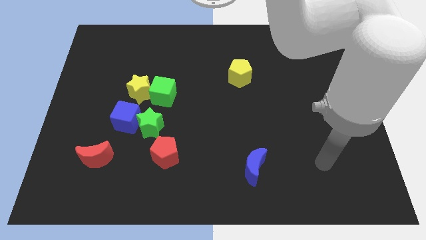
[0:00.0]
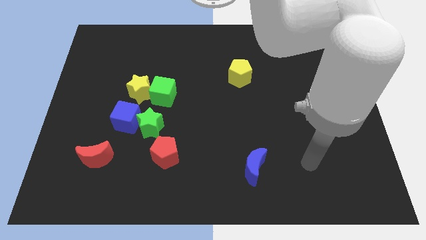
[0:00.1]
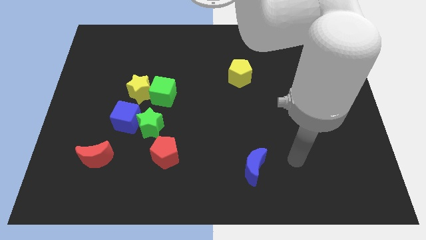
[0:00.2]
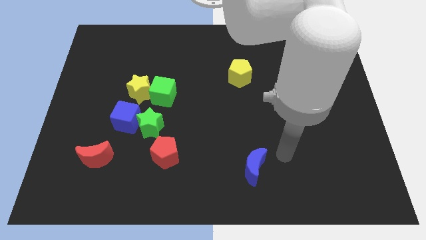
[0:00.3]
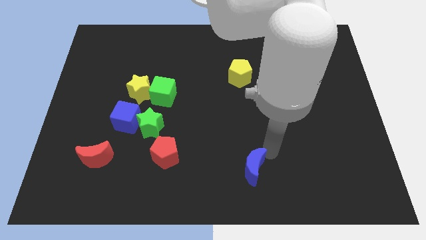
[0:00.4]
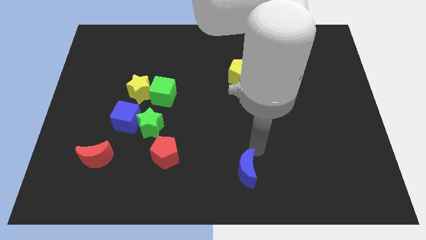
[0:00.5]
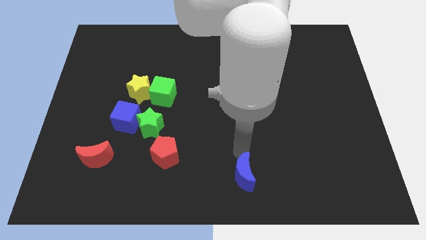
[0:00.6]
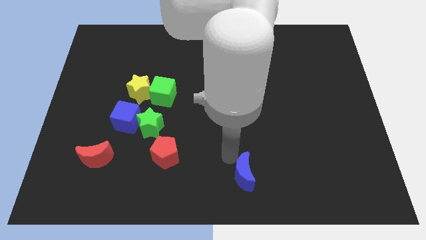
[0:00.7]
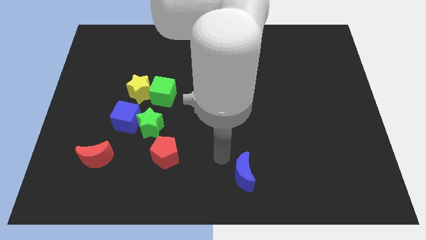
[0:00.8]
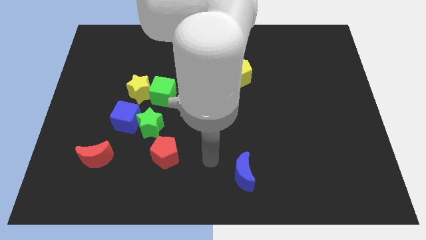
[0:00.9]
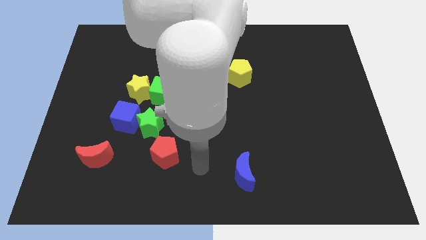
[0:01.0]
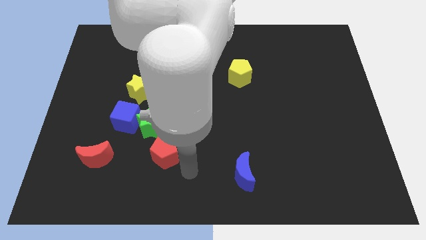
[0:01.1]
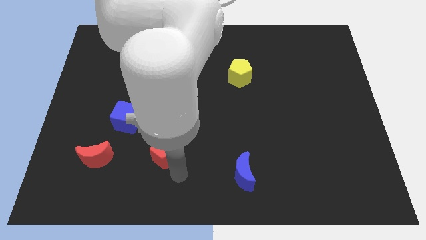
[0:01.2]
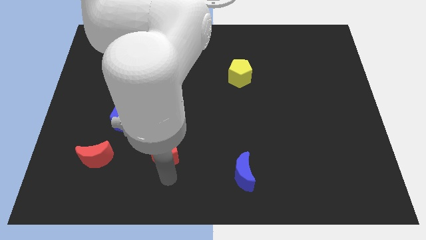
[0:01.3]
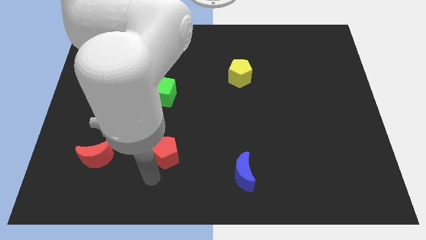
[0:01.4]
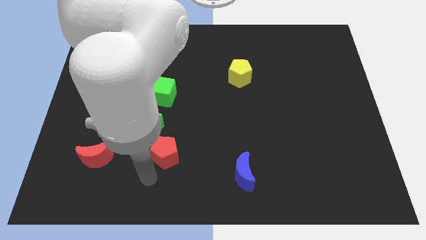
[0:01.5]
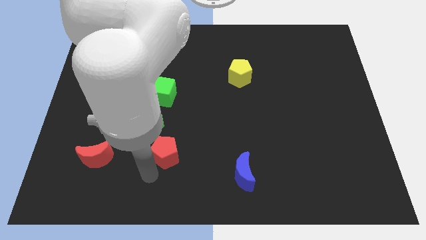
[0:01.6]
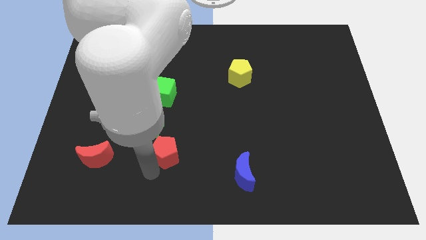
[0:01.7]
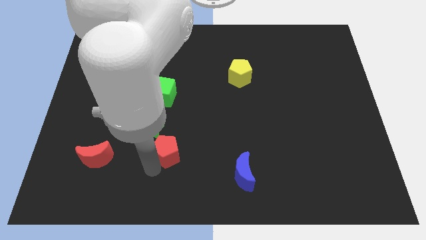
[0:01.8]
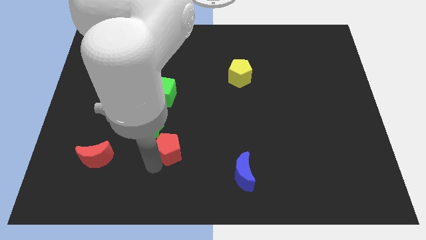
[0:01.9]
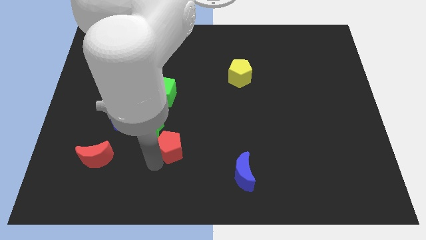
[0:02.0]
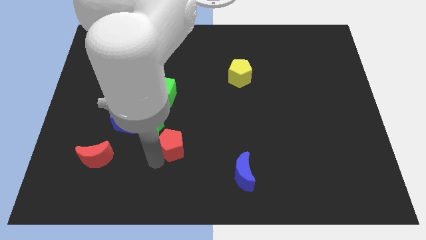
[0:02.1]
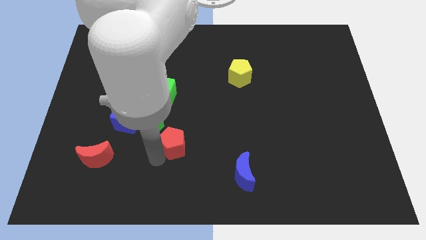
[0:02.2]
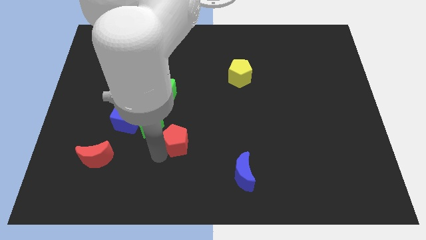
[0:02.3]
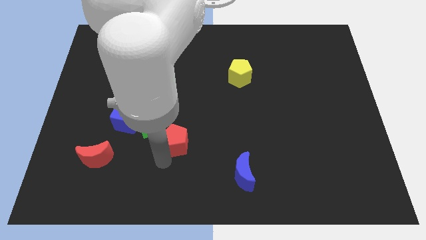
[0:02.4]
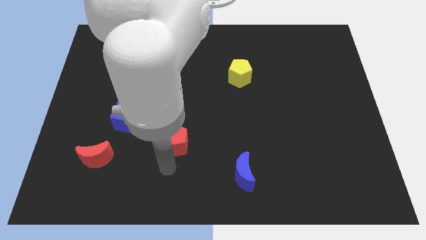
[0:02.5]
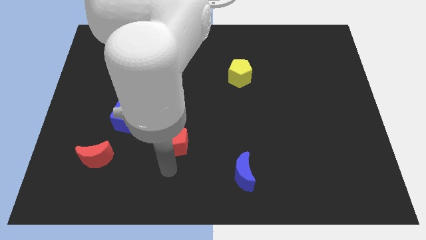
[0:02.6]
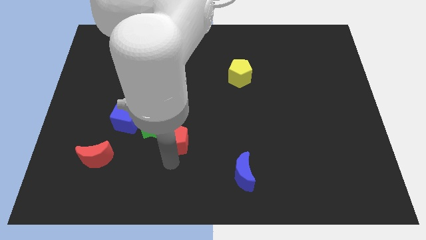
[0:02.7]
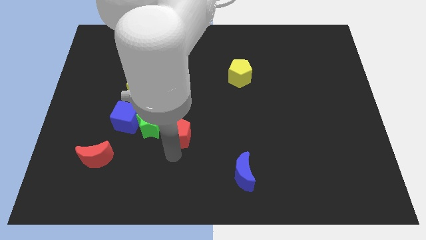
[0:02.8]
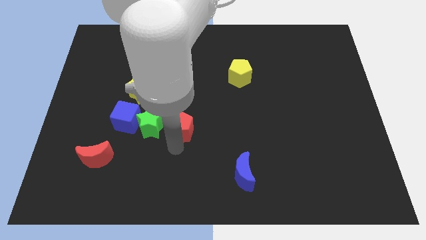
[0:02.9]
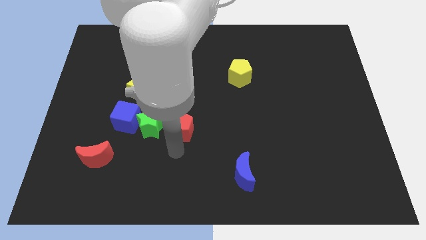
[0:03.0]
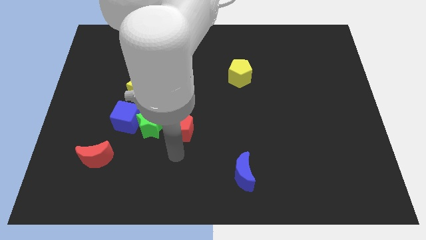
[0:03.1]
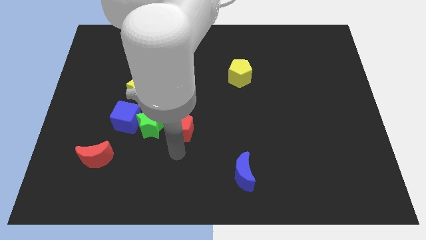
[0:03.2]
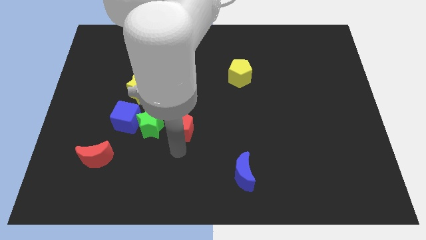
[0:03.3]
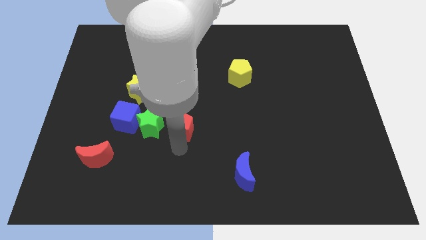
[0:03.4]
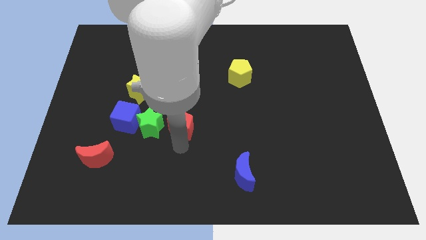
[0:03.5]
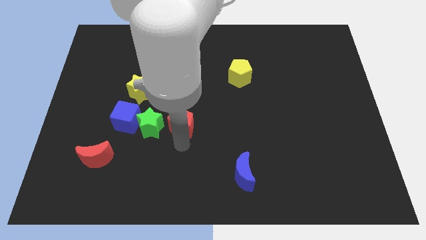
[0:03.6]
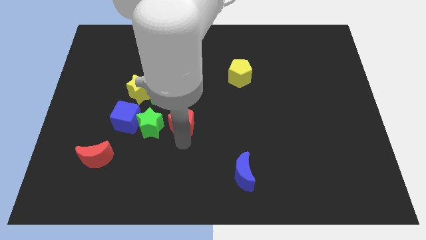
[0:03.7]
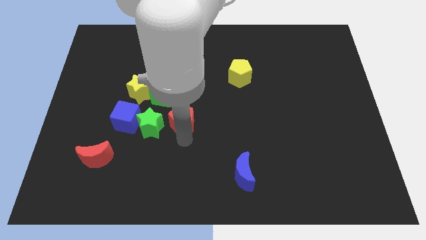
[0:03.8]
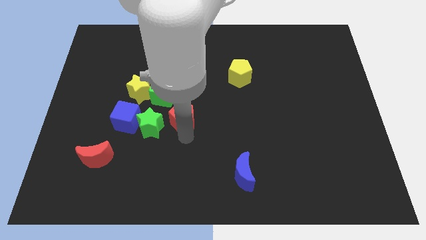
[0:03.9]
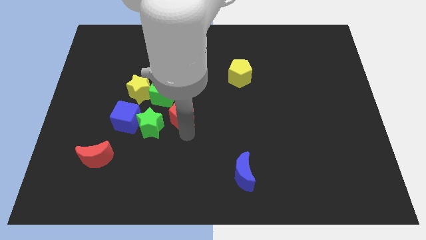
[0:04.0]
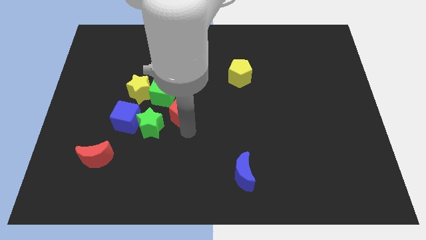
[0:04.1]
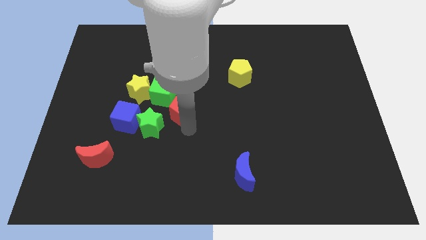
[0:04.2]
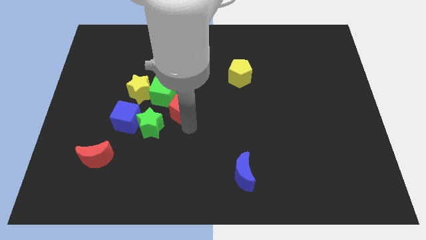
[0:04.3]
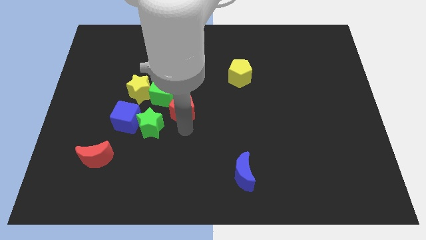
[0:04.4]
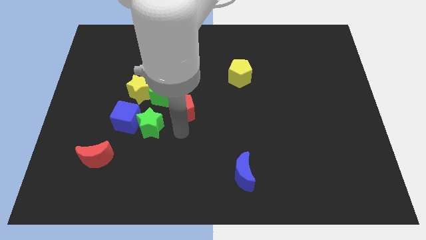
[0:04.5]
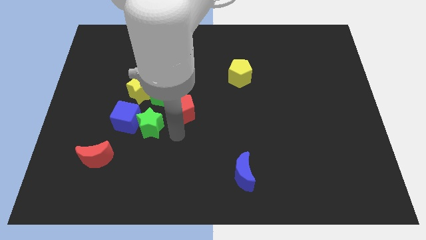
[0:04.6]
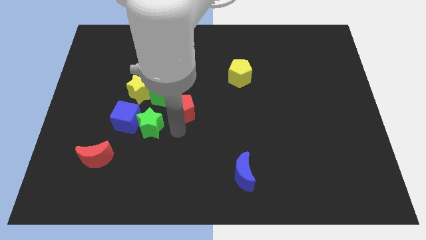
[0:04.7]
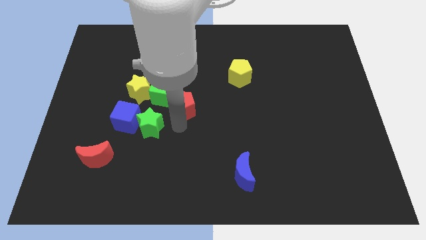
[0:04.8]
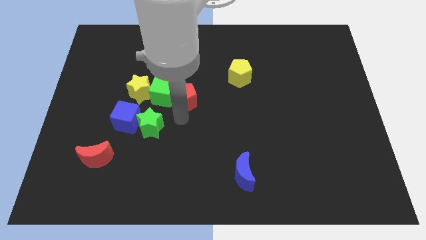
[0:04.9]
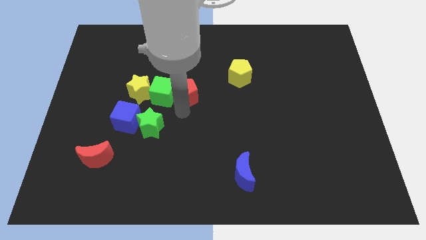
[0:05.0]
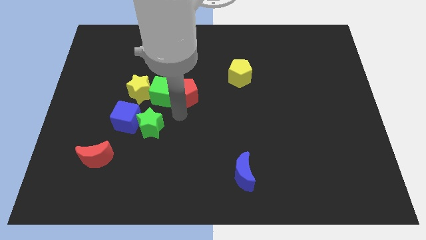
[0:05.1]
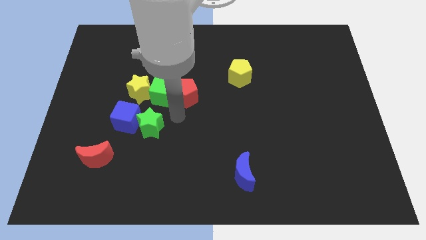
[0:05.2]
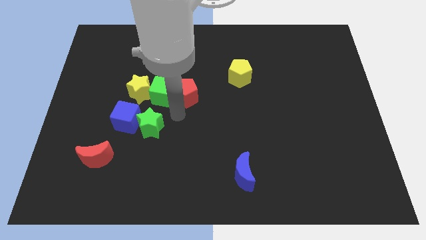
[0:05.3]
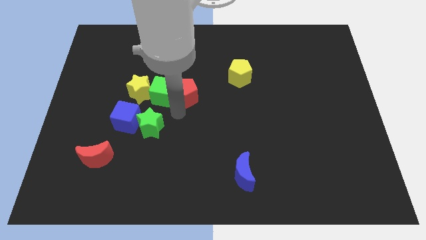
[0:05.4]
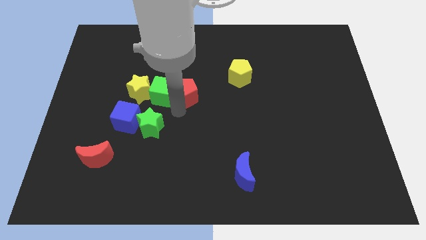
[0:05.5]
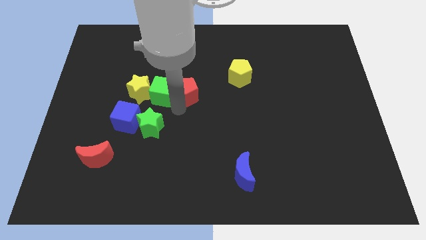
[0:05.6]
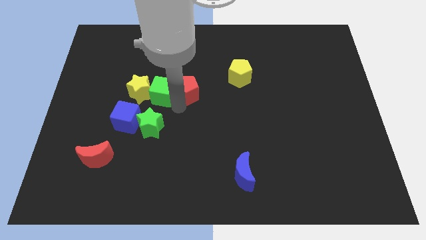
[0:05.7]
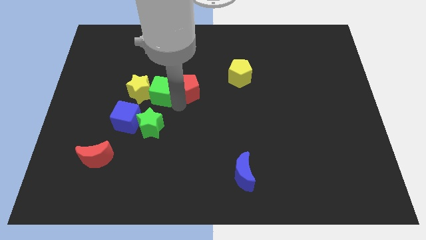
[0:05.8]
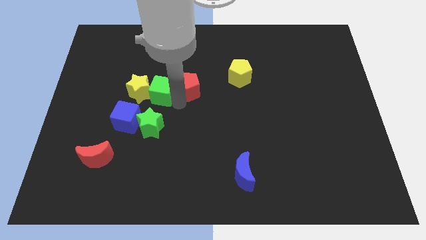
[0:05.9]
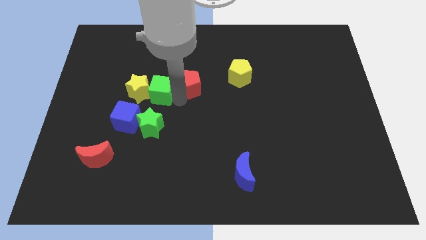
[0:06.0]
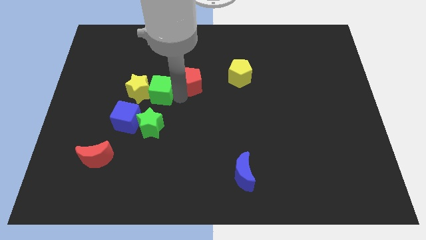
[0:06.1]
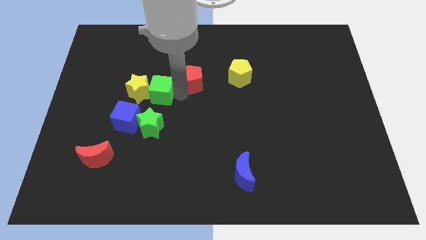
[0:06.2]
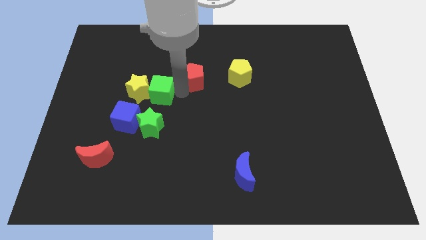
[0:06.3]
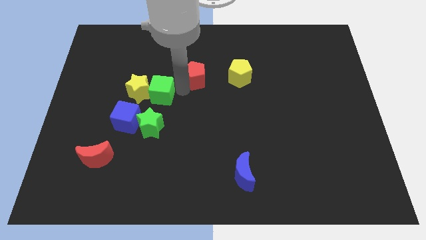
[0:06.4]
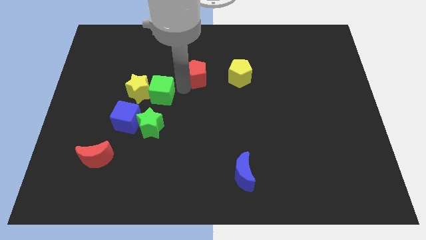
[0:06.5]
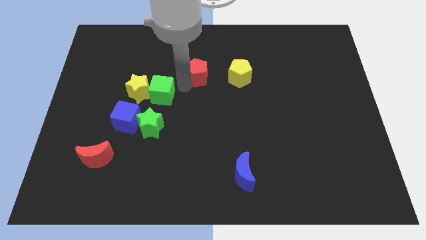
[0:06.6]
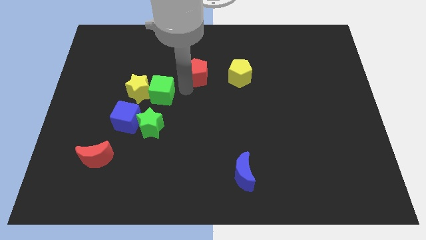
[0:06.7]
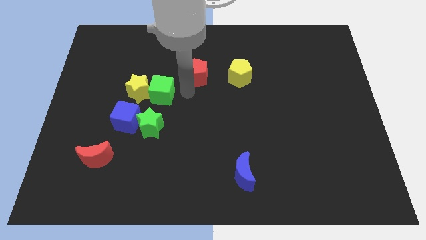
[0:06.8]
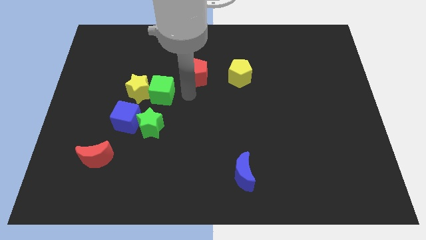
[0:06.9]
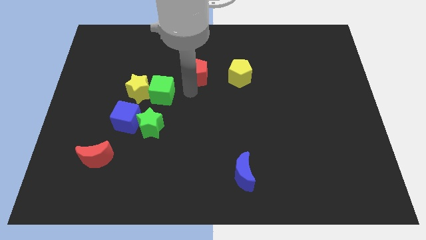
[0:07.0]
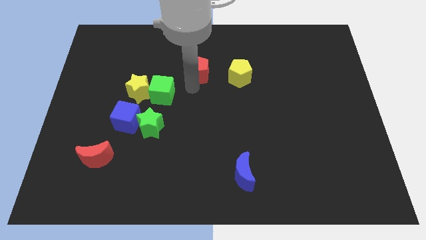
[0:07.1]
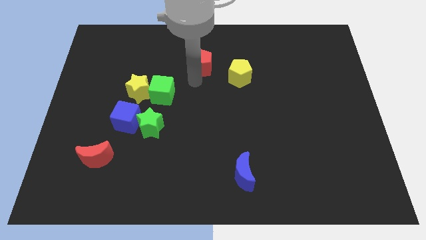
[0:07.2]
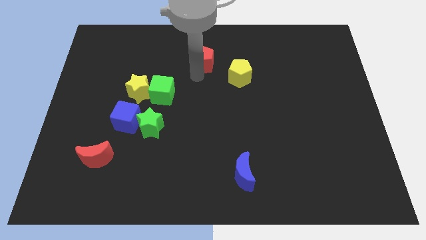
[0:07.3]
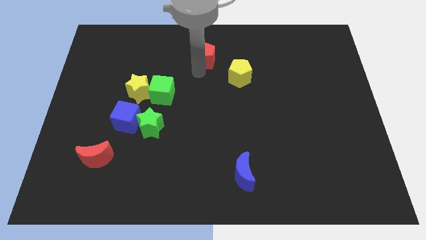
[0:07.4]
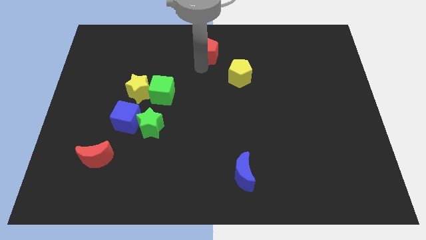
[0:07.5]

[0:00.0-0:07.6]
push the red pentagon to the top
